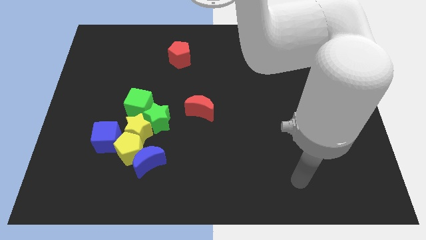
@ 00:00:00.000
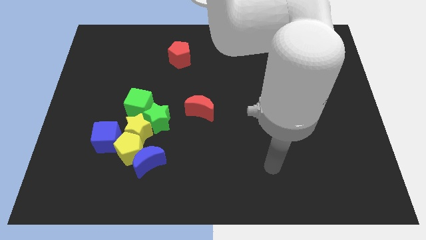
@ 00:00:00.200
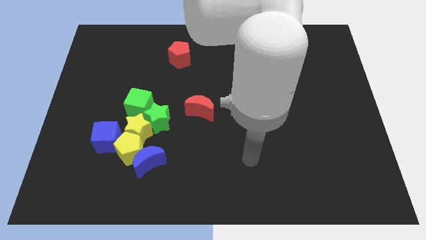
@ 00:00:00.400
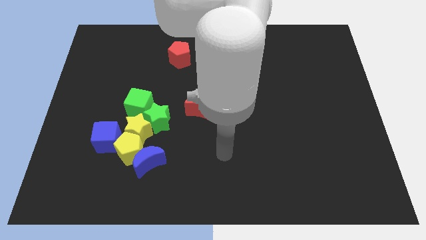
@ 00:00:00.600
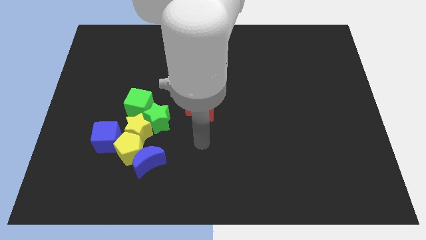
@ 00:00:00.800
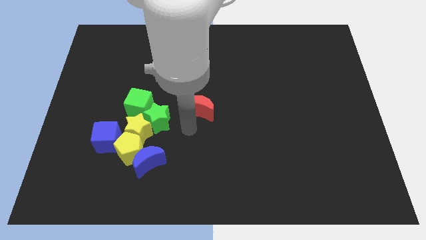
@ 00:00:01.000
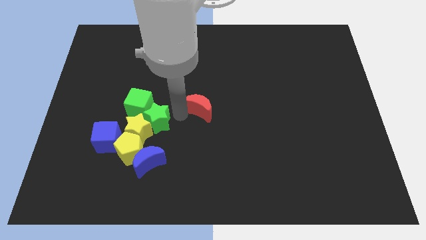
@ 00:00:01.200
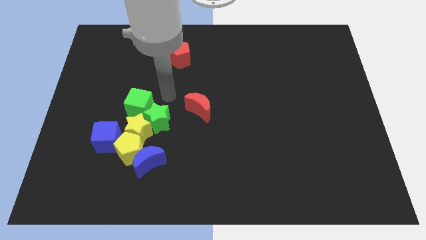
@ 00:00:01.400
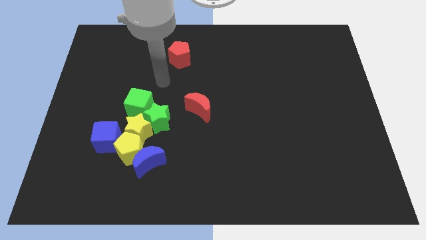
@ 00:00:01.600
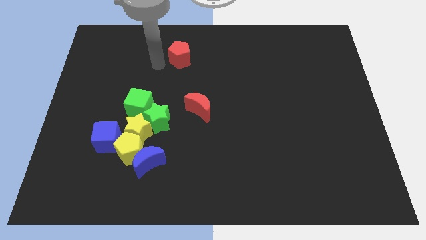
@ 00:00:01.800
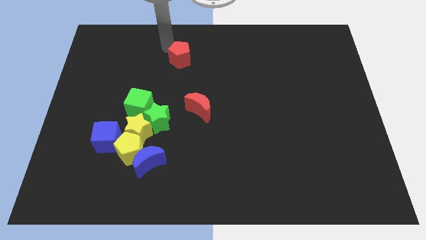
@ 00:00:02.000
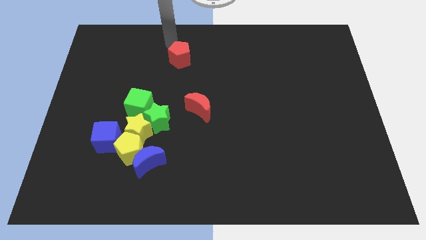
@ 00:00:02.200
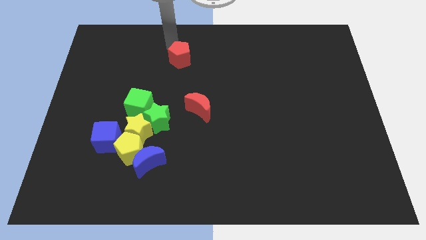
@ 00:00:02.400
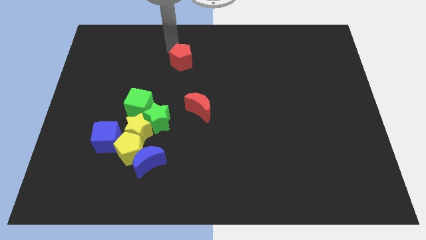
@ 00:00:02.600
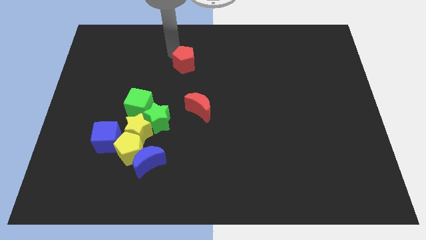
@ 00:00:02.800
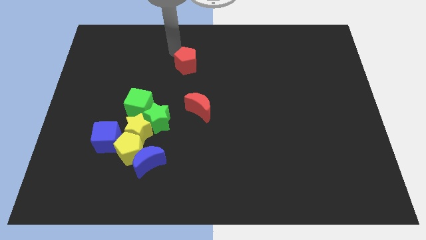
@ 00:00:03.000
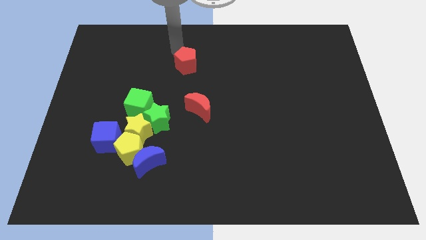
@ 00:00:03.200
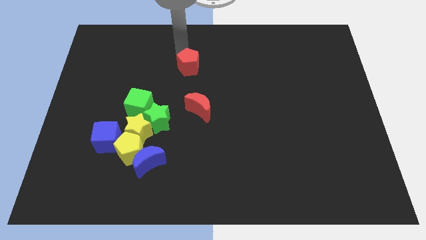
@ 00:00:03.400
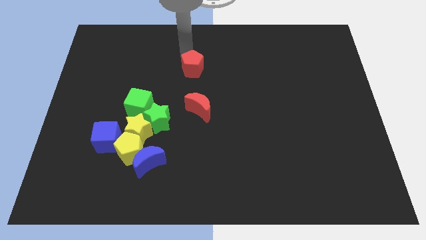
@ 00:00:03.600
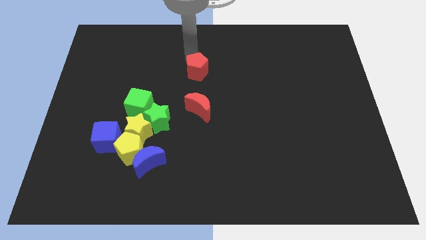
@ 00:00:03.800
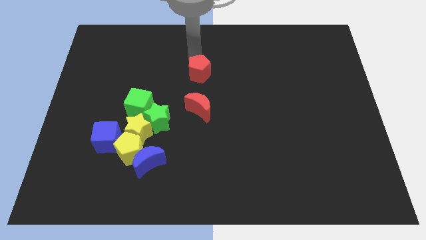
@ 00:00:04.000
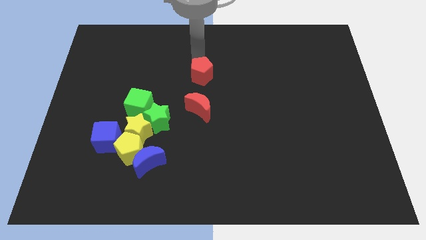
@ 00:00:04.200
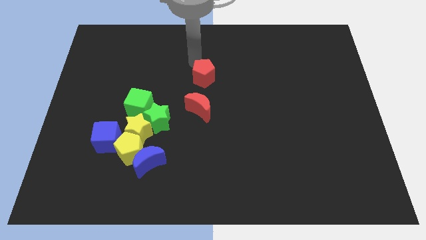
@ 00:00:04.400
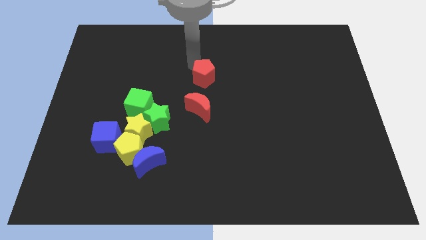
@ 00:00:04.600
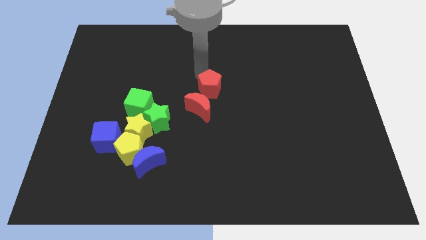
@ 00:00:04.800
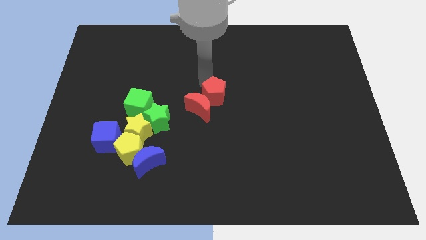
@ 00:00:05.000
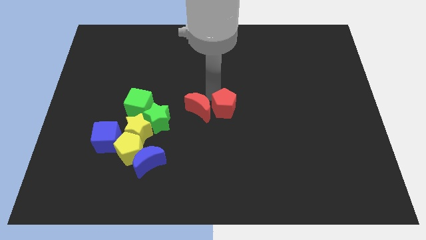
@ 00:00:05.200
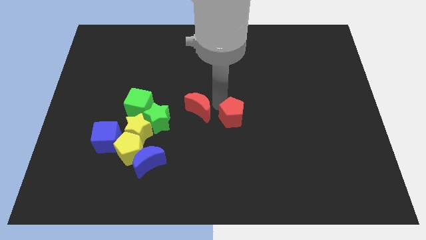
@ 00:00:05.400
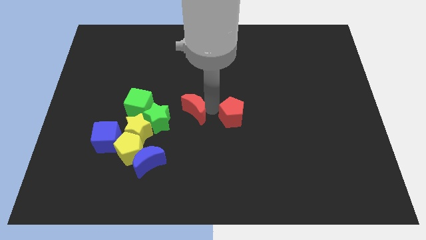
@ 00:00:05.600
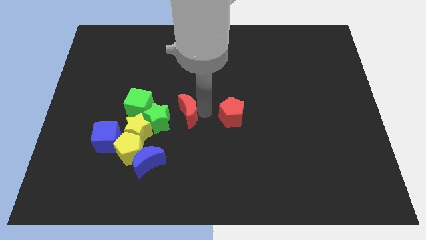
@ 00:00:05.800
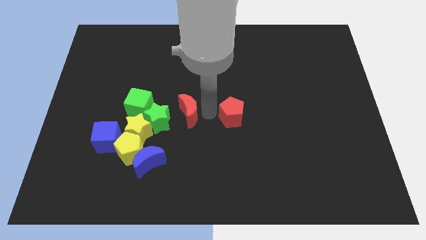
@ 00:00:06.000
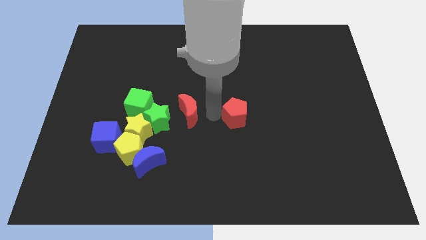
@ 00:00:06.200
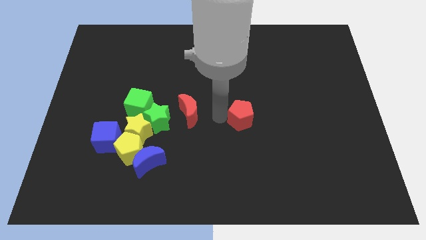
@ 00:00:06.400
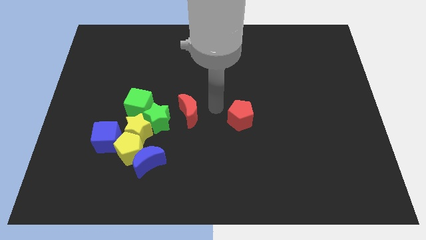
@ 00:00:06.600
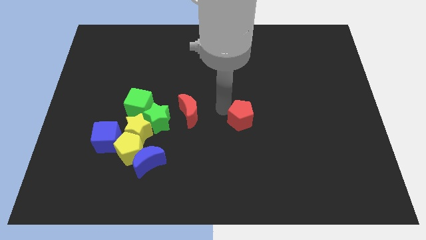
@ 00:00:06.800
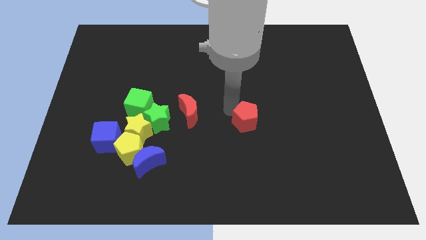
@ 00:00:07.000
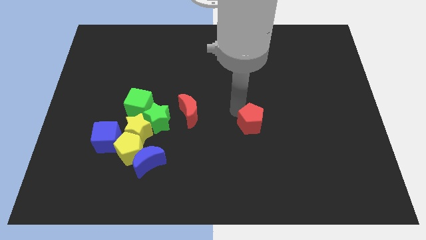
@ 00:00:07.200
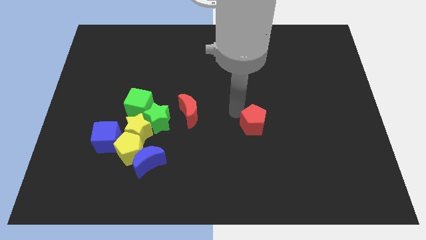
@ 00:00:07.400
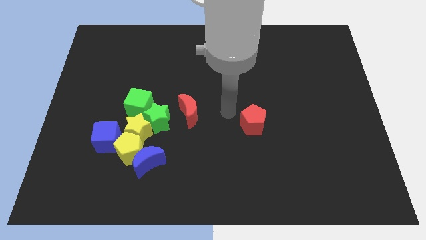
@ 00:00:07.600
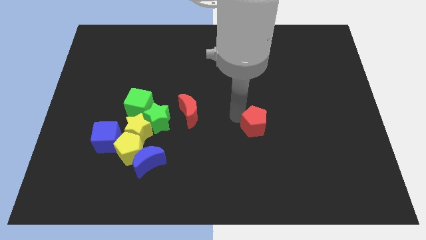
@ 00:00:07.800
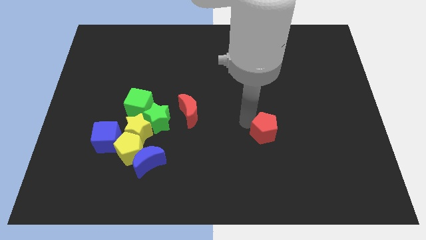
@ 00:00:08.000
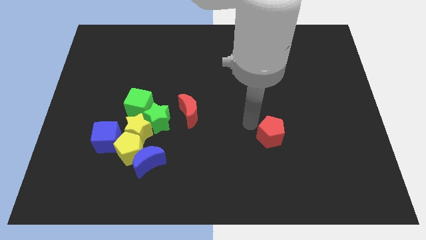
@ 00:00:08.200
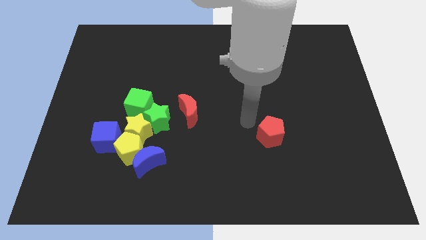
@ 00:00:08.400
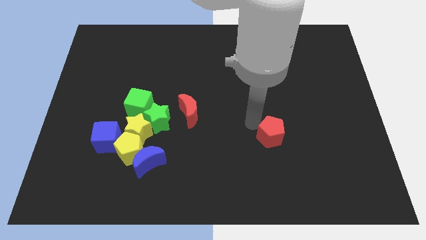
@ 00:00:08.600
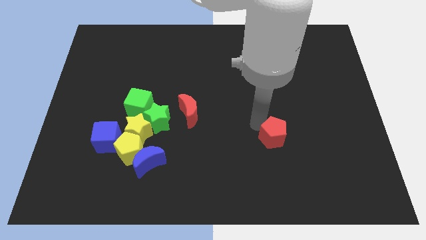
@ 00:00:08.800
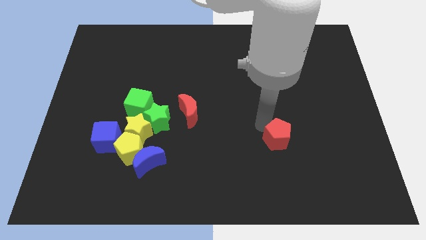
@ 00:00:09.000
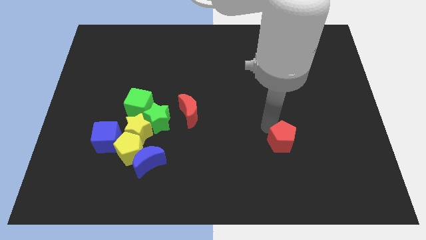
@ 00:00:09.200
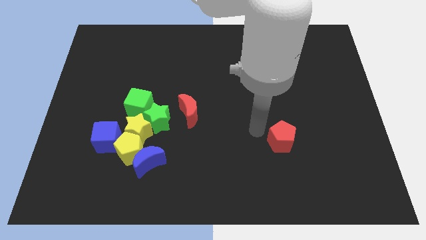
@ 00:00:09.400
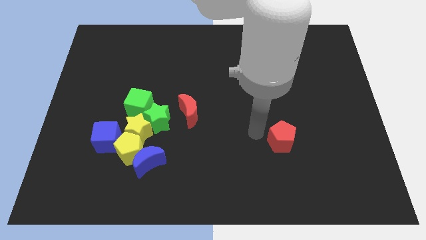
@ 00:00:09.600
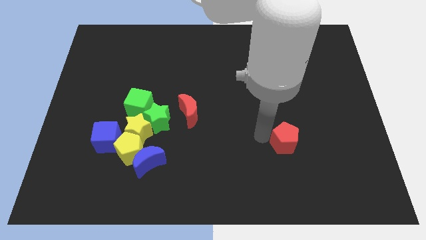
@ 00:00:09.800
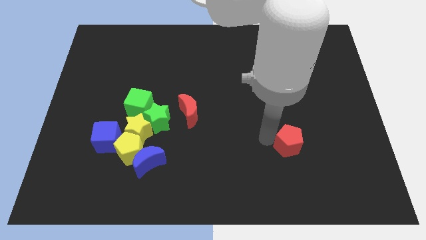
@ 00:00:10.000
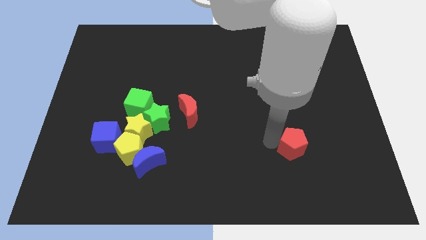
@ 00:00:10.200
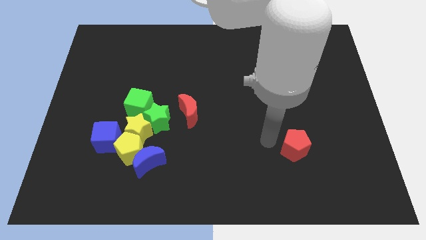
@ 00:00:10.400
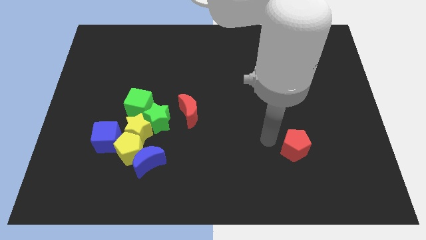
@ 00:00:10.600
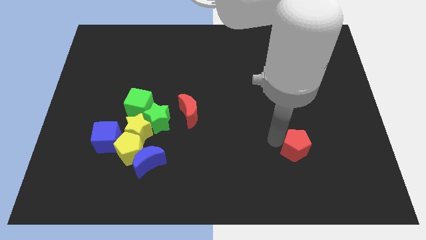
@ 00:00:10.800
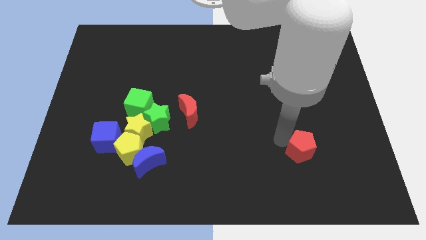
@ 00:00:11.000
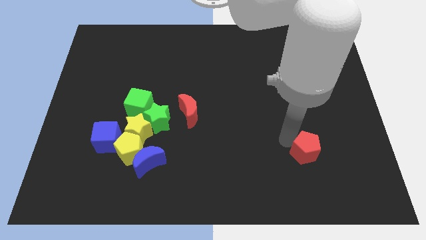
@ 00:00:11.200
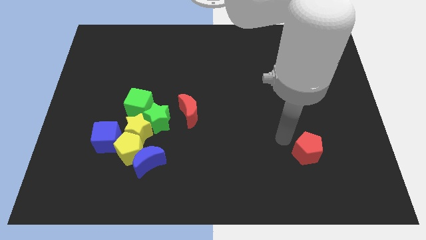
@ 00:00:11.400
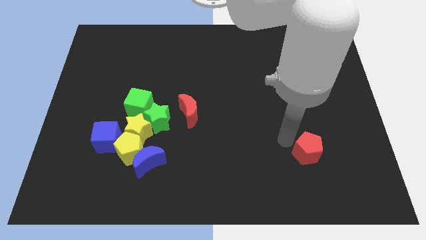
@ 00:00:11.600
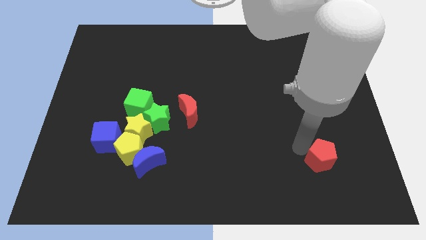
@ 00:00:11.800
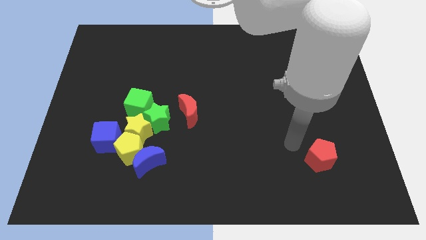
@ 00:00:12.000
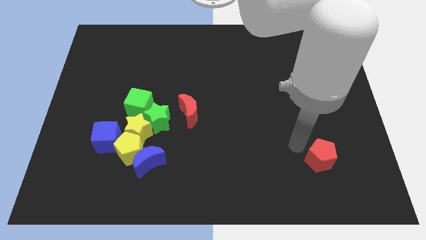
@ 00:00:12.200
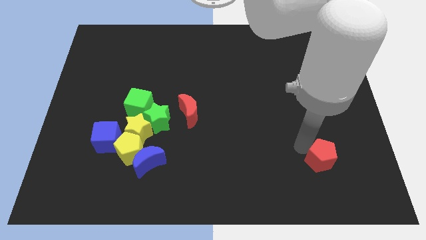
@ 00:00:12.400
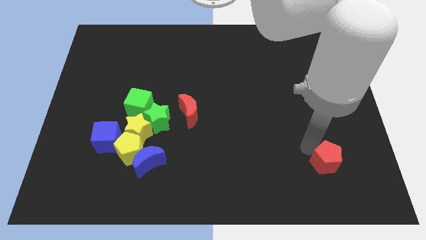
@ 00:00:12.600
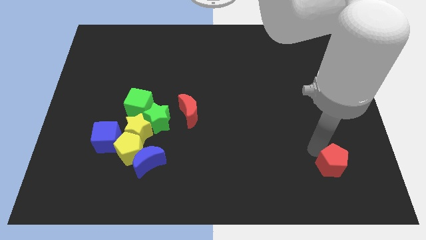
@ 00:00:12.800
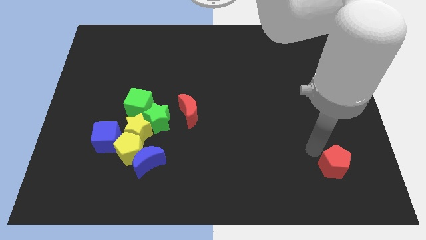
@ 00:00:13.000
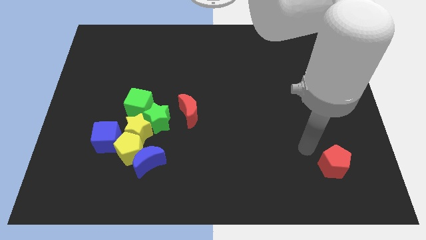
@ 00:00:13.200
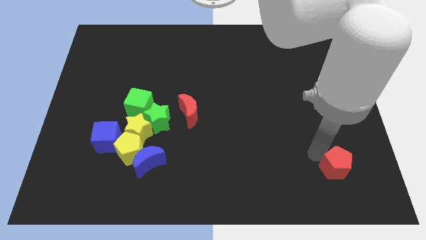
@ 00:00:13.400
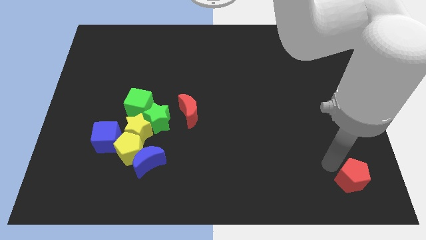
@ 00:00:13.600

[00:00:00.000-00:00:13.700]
put the red pentagon to the bottom right corner
